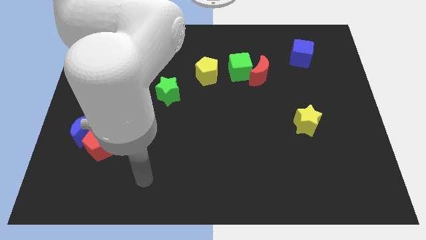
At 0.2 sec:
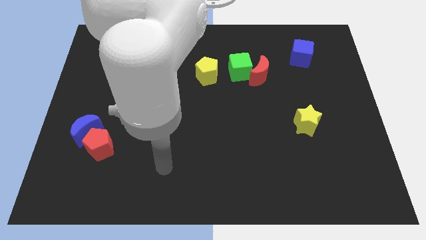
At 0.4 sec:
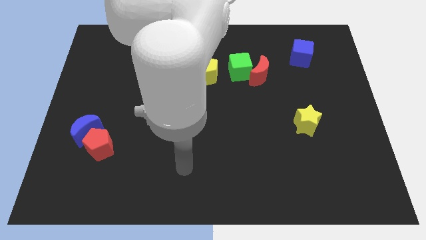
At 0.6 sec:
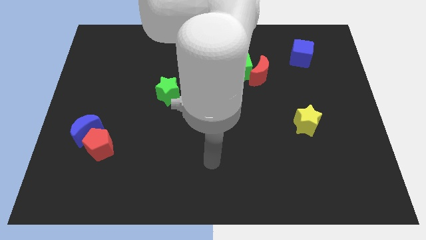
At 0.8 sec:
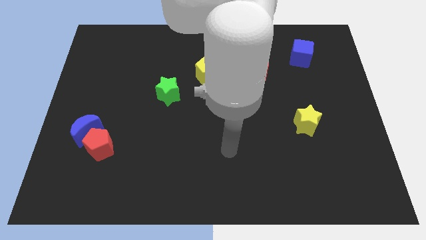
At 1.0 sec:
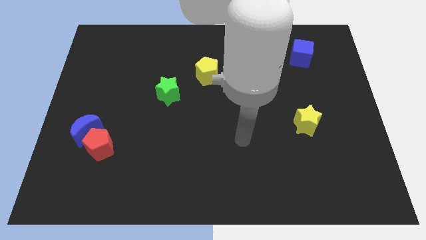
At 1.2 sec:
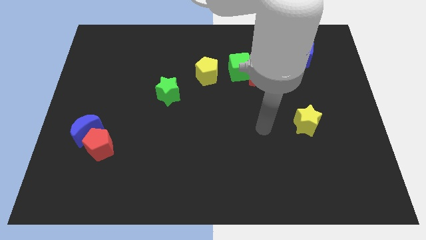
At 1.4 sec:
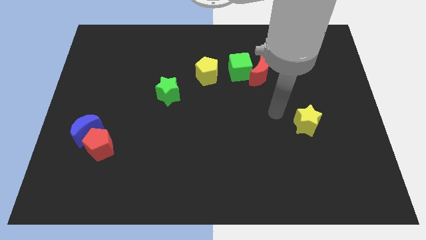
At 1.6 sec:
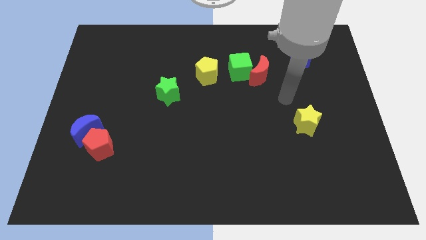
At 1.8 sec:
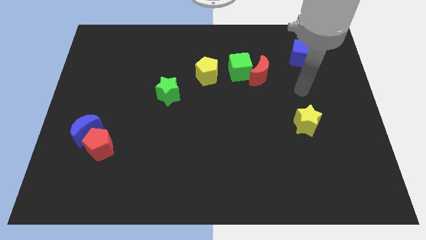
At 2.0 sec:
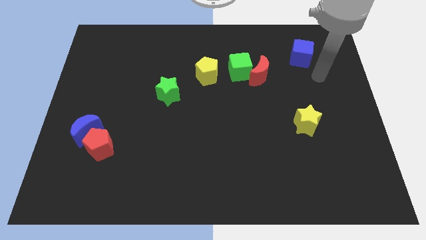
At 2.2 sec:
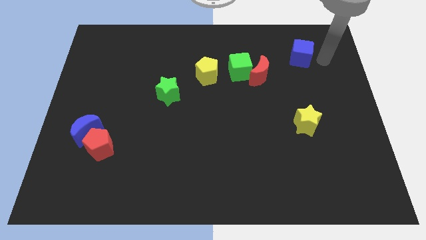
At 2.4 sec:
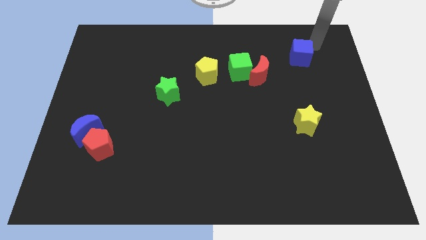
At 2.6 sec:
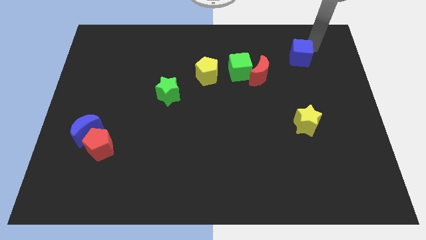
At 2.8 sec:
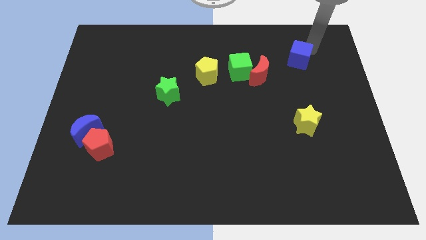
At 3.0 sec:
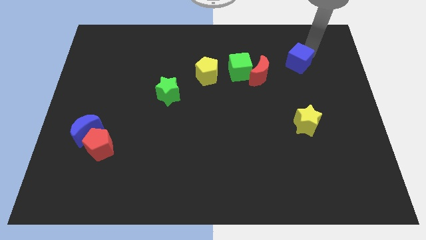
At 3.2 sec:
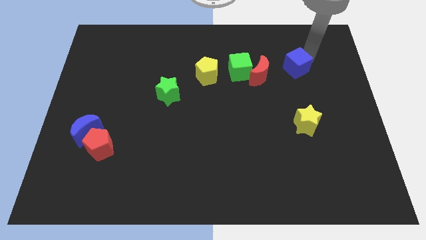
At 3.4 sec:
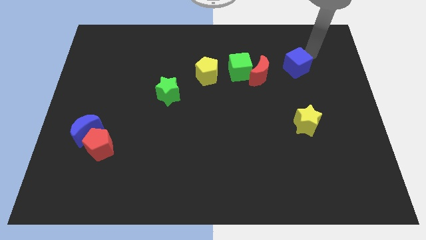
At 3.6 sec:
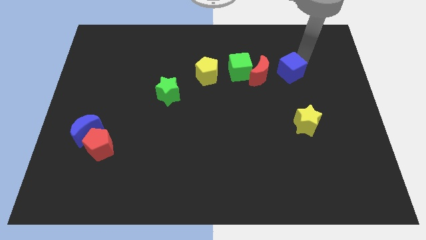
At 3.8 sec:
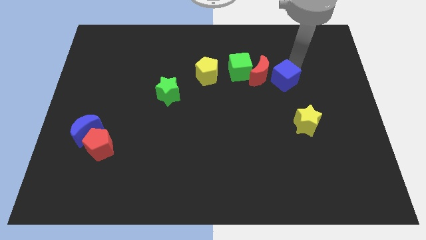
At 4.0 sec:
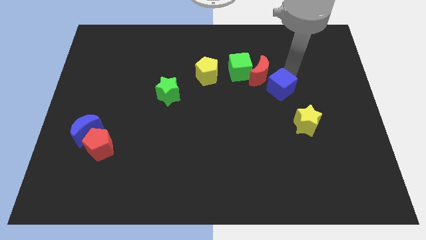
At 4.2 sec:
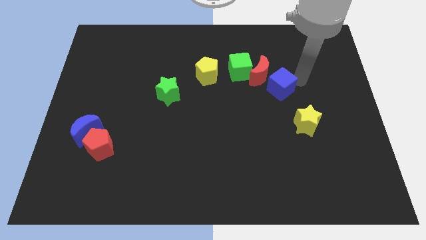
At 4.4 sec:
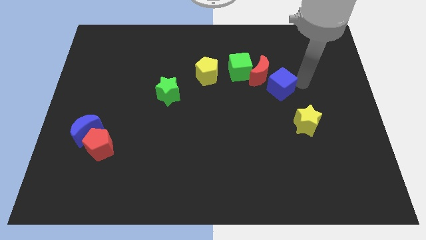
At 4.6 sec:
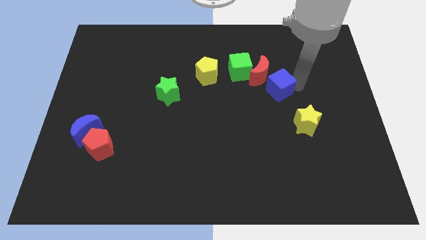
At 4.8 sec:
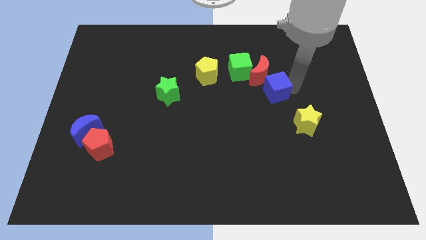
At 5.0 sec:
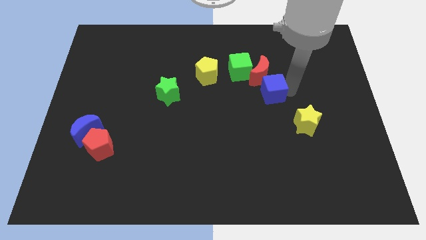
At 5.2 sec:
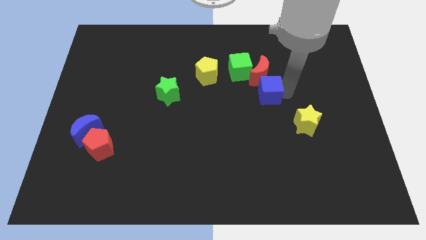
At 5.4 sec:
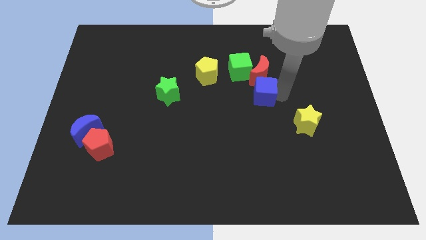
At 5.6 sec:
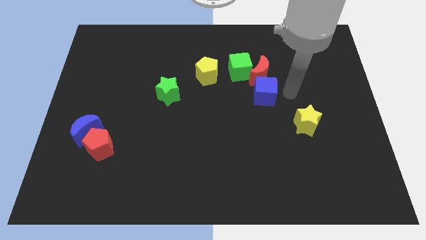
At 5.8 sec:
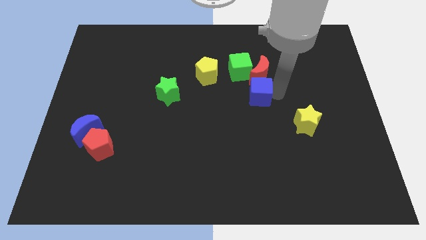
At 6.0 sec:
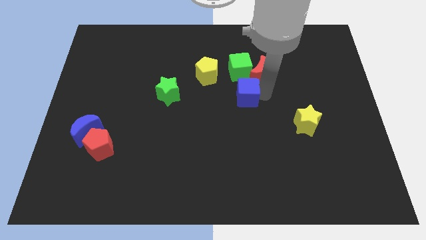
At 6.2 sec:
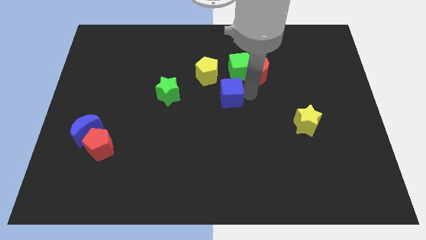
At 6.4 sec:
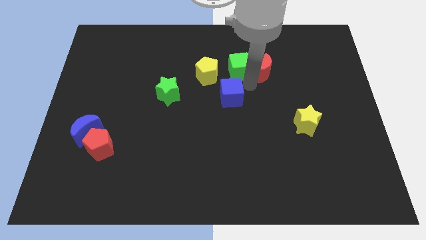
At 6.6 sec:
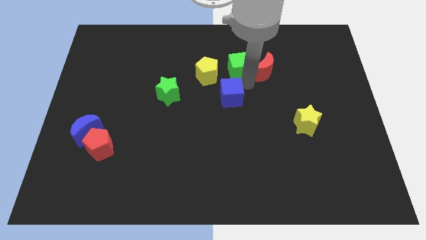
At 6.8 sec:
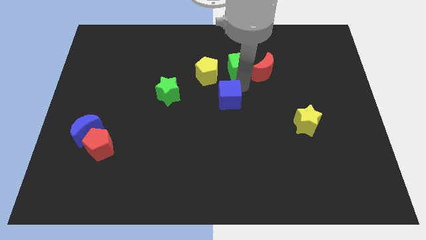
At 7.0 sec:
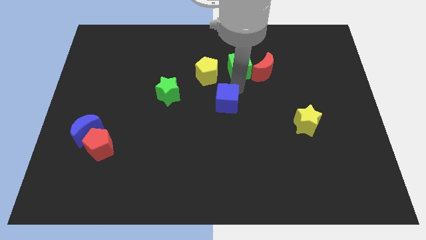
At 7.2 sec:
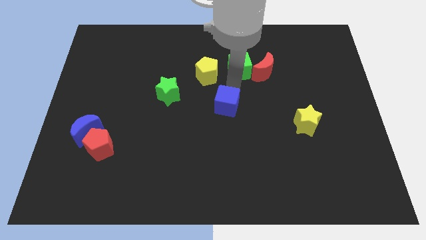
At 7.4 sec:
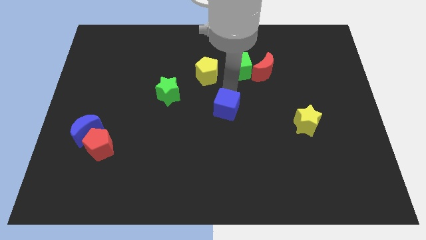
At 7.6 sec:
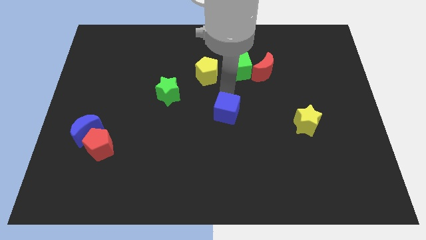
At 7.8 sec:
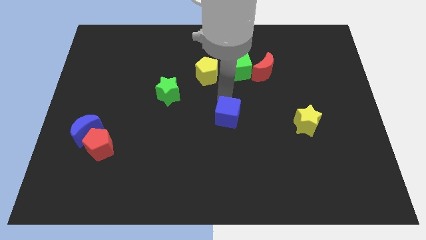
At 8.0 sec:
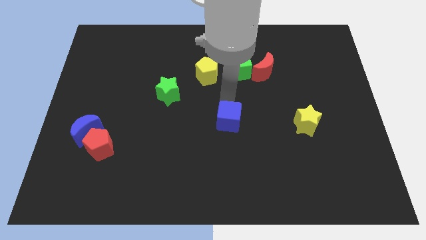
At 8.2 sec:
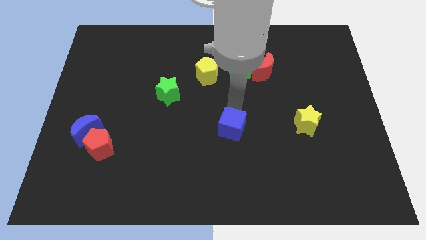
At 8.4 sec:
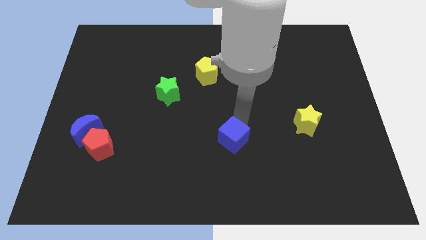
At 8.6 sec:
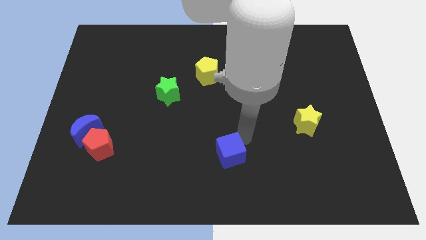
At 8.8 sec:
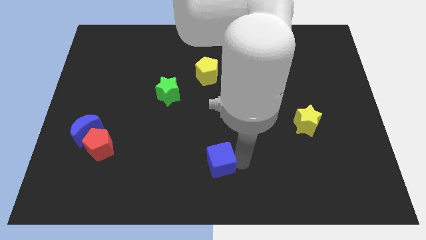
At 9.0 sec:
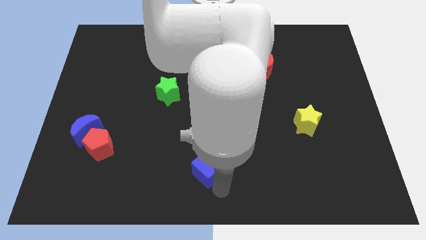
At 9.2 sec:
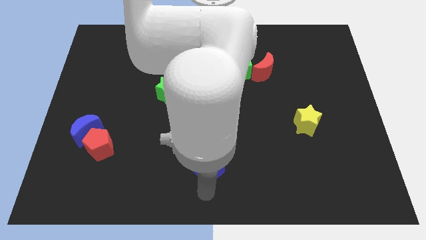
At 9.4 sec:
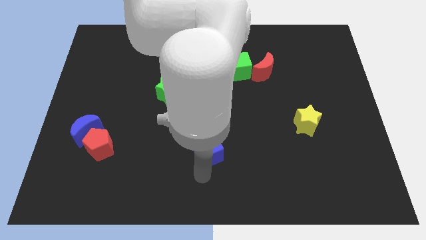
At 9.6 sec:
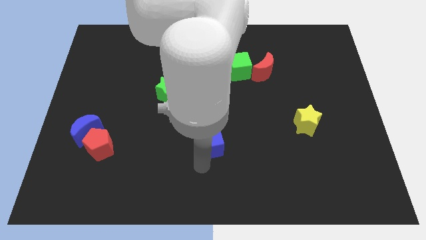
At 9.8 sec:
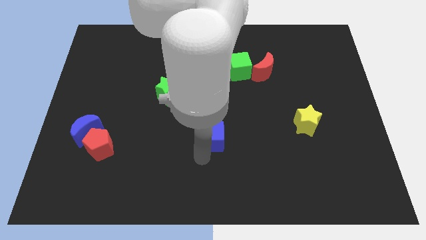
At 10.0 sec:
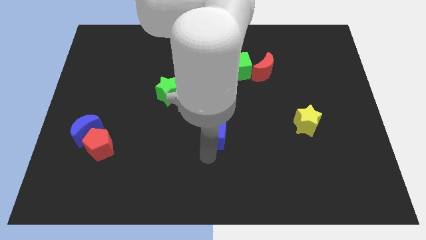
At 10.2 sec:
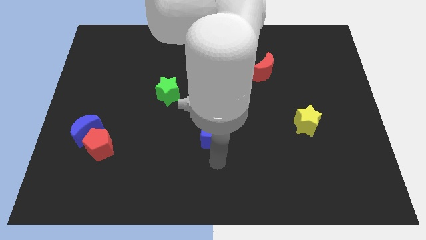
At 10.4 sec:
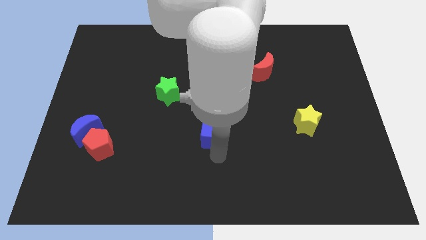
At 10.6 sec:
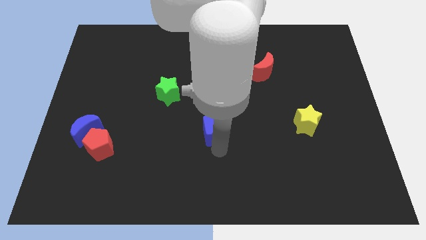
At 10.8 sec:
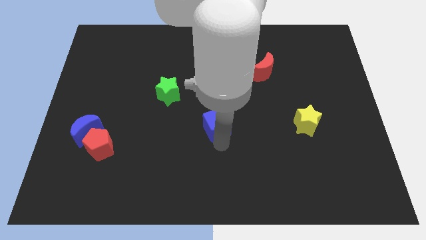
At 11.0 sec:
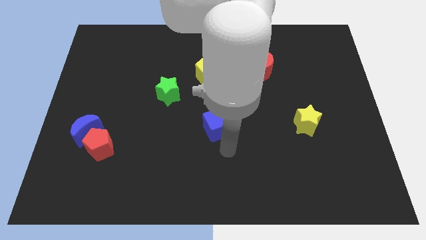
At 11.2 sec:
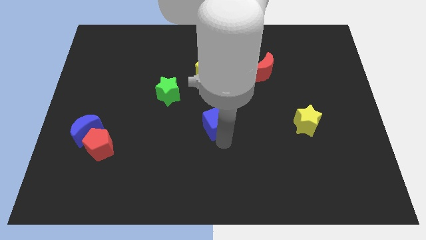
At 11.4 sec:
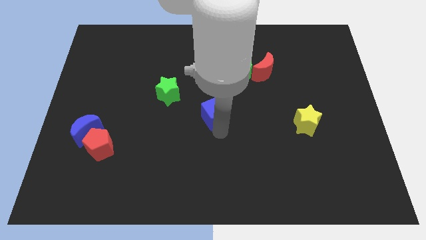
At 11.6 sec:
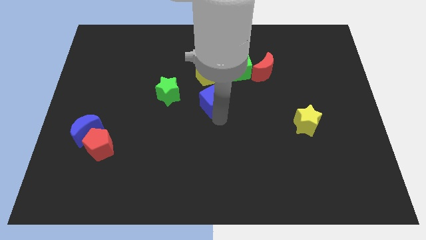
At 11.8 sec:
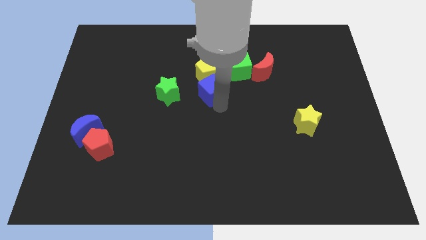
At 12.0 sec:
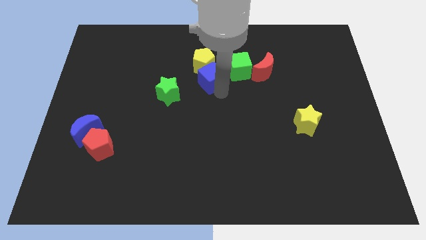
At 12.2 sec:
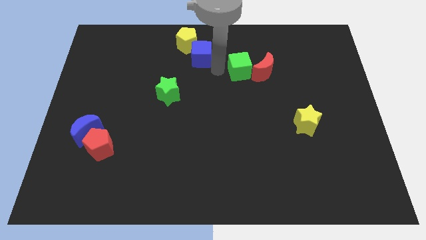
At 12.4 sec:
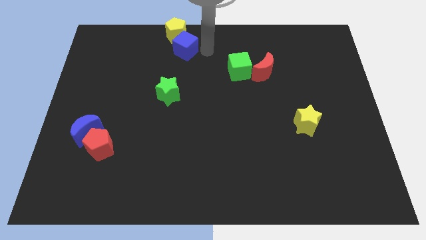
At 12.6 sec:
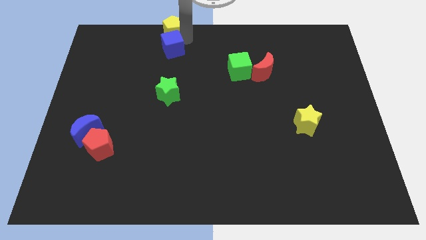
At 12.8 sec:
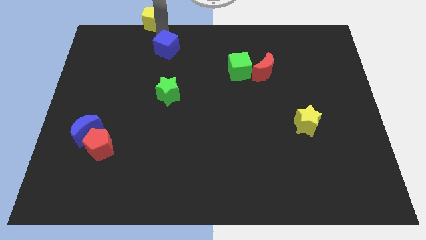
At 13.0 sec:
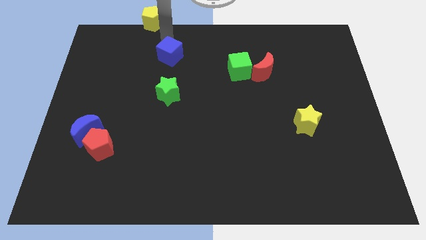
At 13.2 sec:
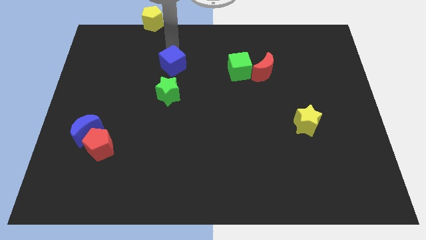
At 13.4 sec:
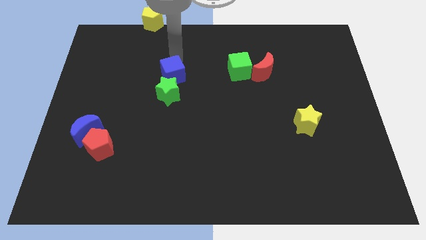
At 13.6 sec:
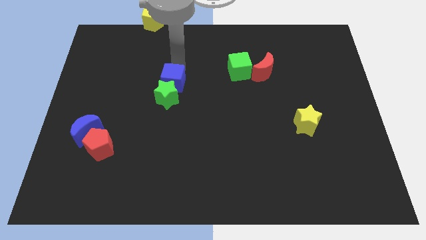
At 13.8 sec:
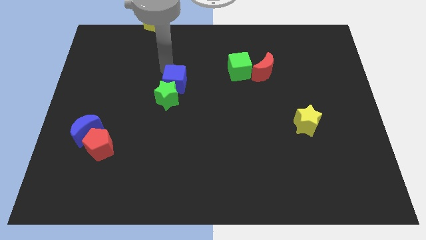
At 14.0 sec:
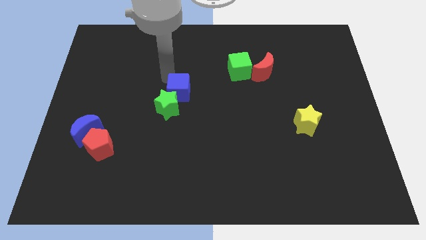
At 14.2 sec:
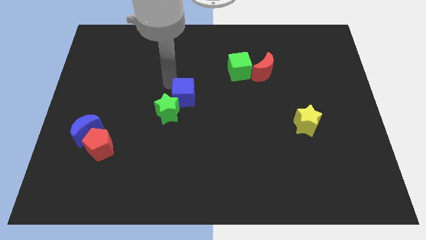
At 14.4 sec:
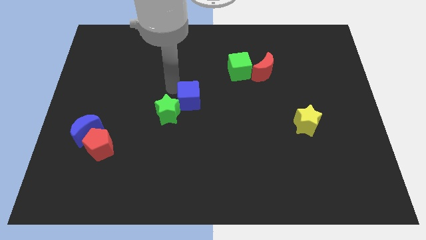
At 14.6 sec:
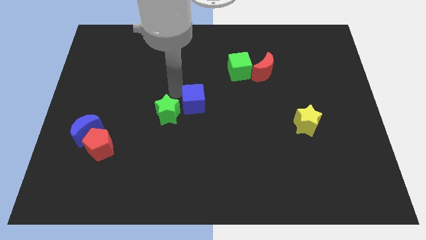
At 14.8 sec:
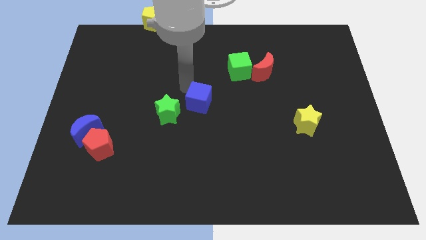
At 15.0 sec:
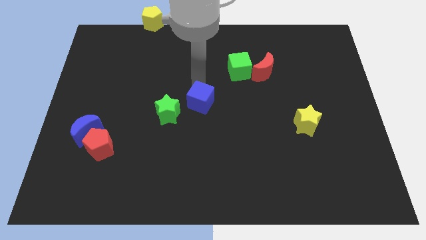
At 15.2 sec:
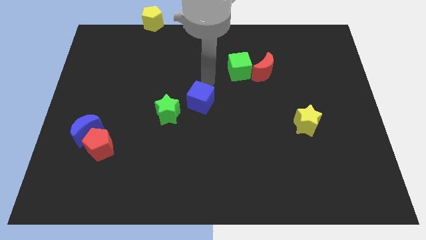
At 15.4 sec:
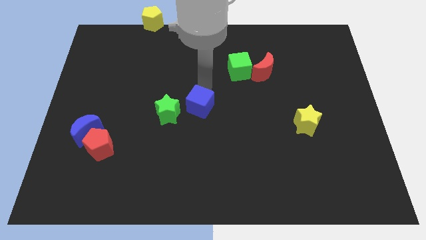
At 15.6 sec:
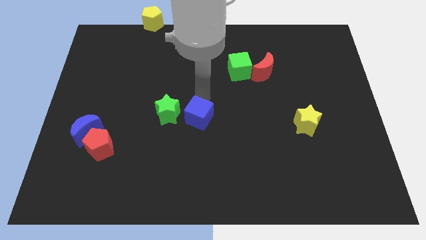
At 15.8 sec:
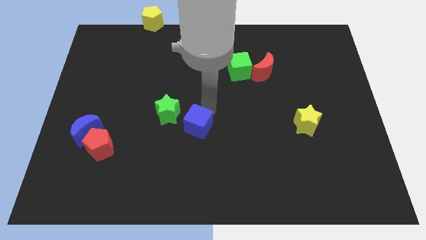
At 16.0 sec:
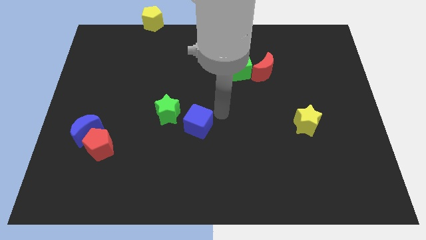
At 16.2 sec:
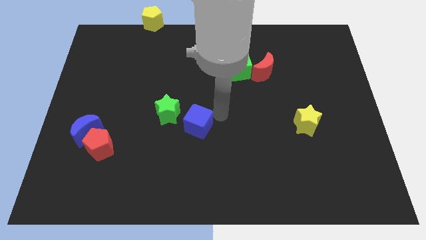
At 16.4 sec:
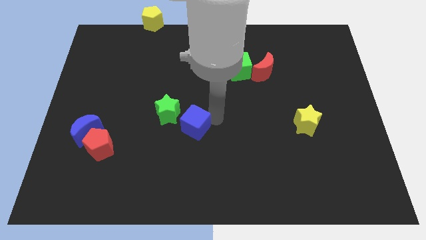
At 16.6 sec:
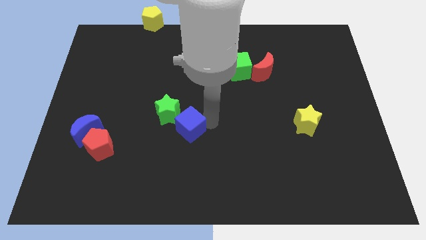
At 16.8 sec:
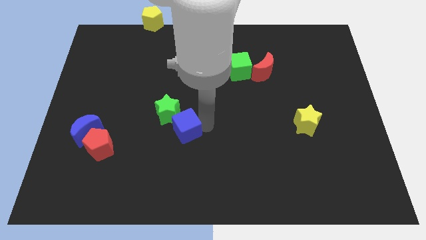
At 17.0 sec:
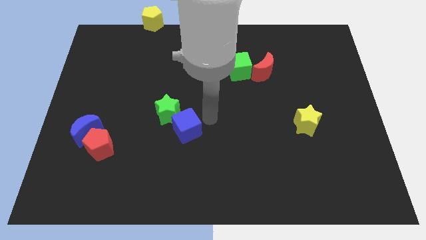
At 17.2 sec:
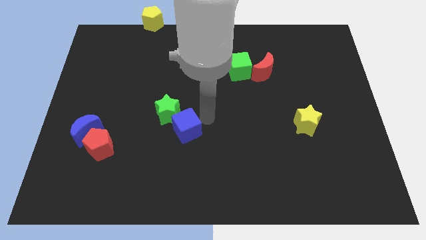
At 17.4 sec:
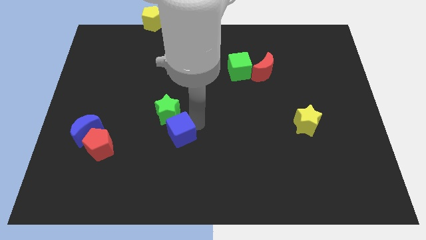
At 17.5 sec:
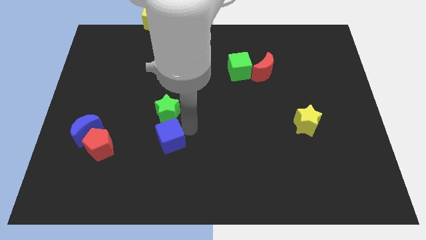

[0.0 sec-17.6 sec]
push the blue cube right of the red pentagon
